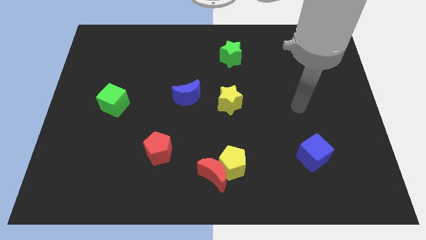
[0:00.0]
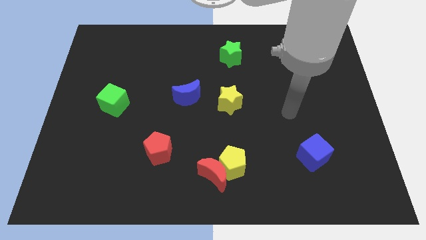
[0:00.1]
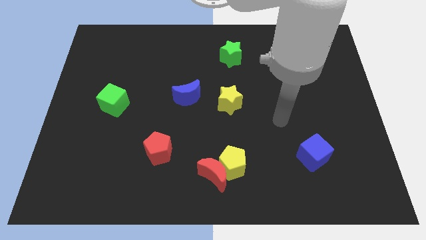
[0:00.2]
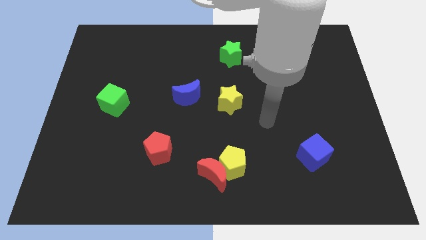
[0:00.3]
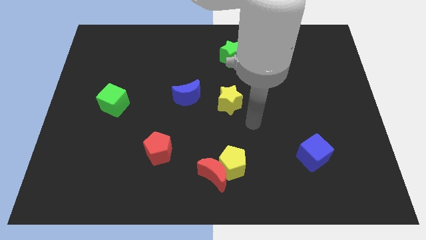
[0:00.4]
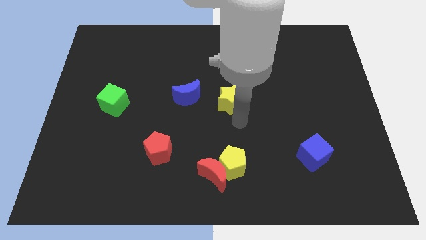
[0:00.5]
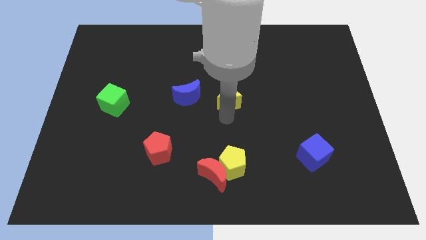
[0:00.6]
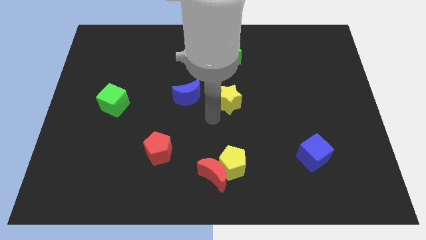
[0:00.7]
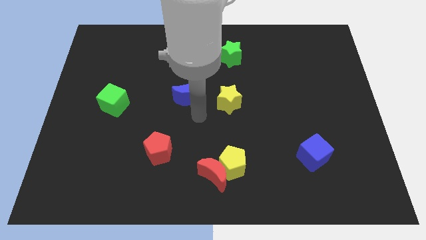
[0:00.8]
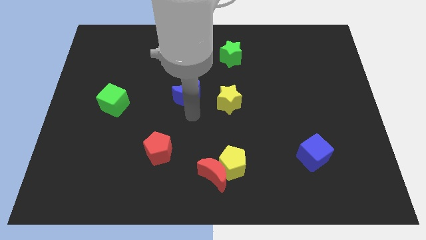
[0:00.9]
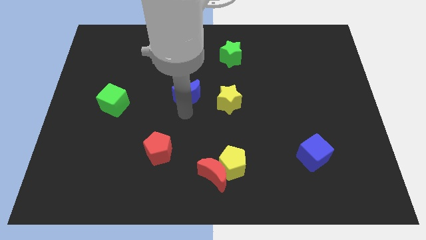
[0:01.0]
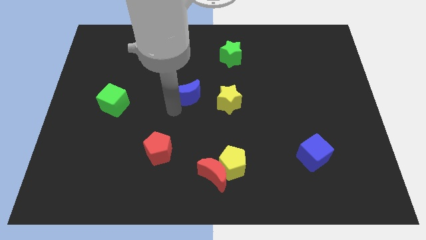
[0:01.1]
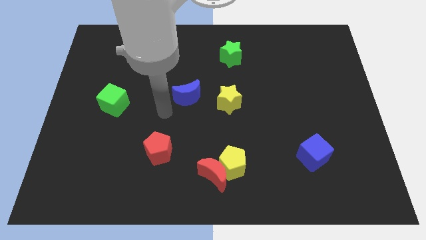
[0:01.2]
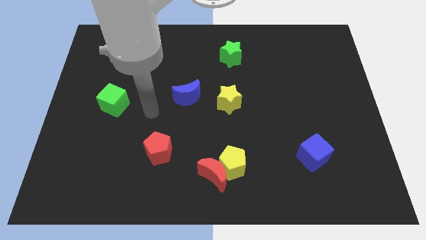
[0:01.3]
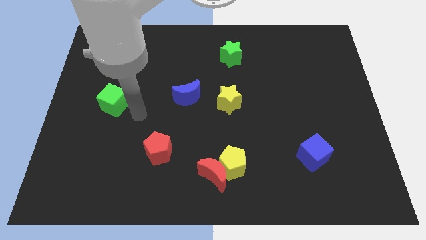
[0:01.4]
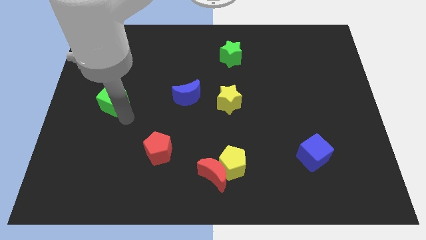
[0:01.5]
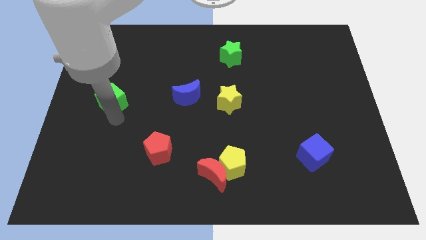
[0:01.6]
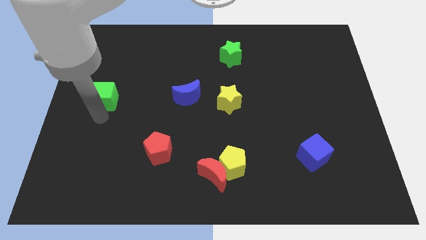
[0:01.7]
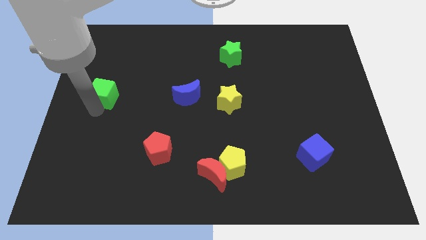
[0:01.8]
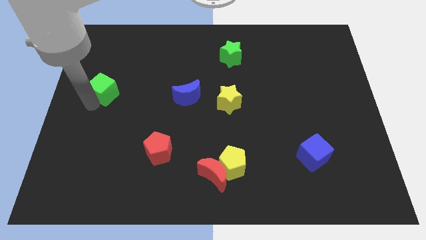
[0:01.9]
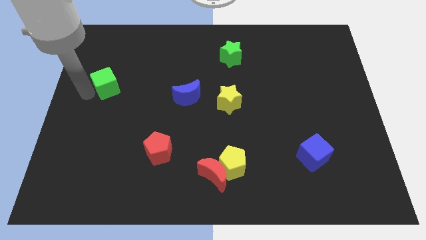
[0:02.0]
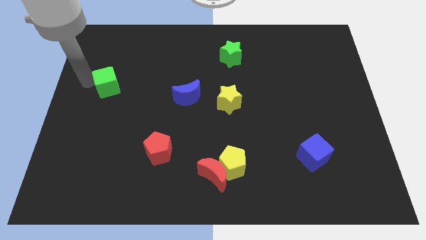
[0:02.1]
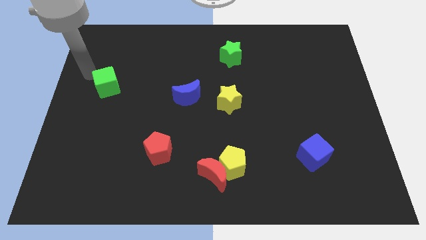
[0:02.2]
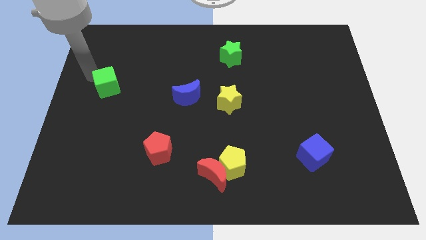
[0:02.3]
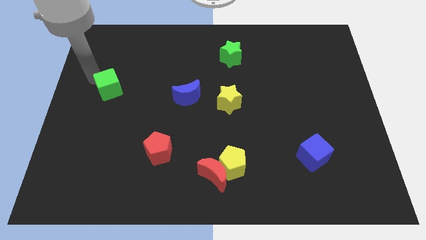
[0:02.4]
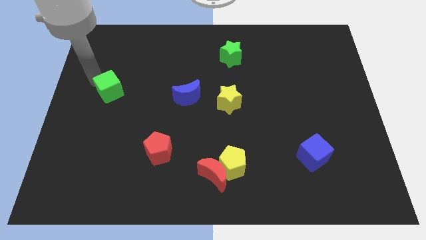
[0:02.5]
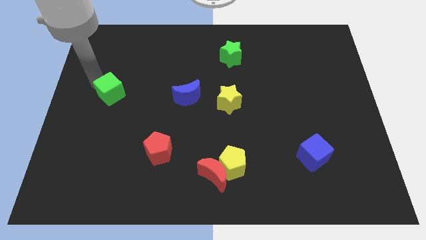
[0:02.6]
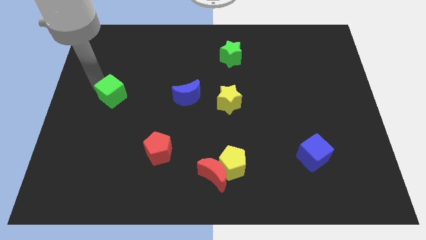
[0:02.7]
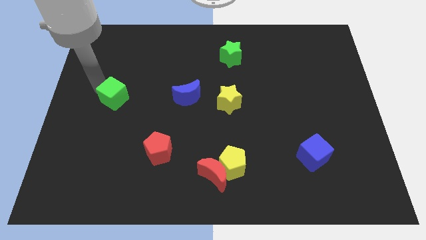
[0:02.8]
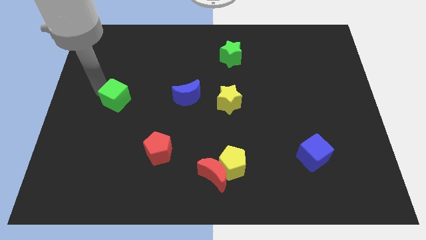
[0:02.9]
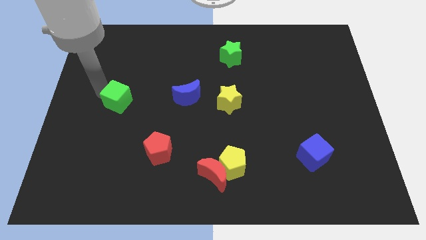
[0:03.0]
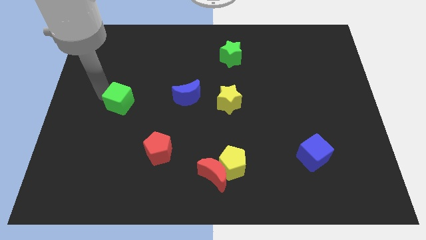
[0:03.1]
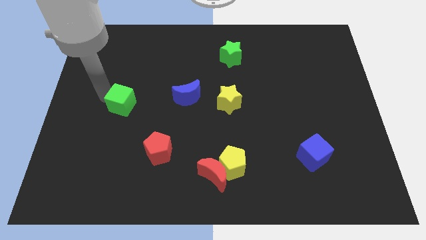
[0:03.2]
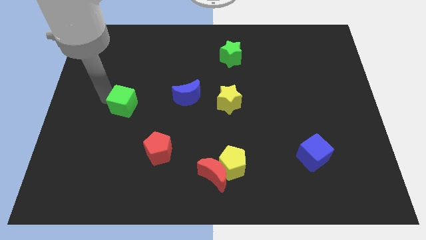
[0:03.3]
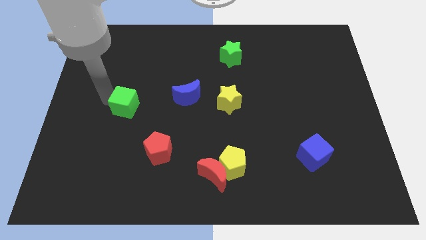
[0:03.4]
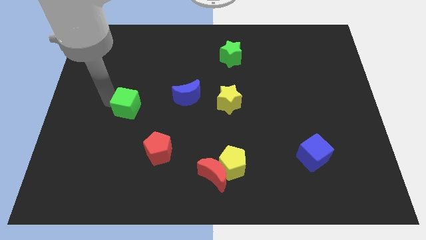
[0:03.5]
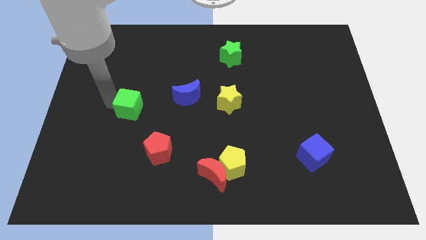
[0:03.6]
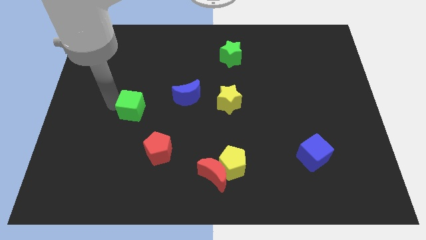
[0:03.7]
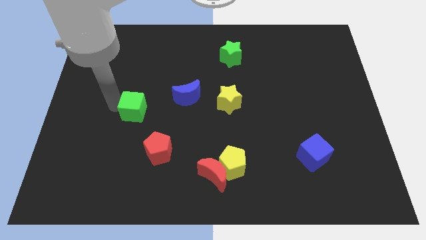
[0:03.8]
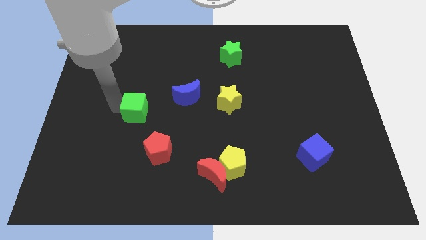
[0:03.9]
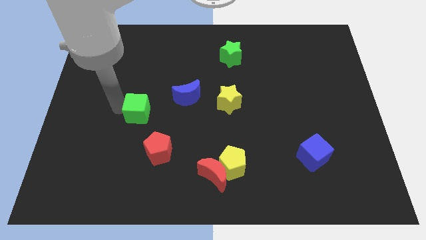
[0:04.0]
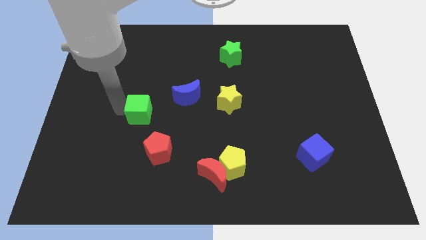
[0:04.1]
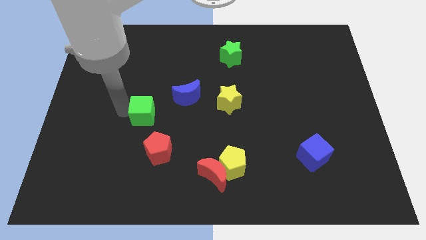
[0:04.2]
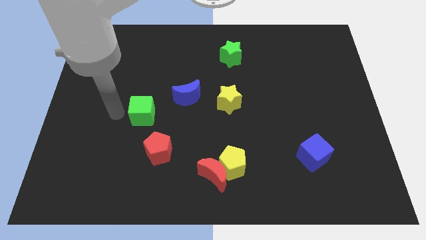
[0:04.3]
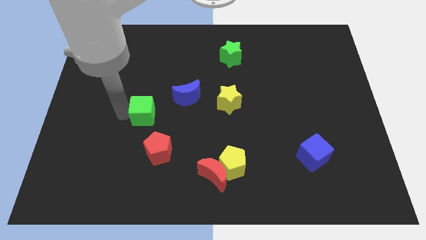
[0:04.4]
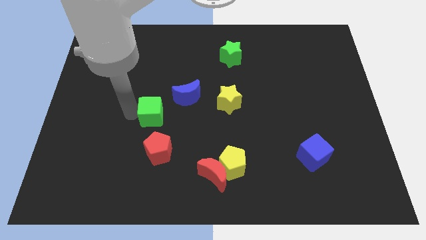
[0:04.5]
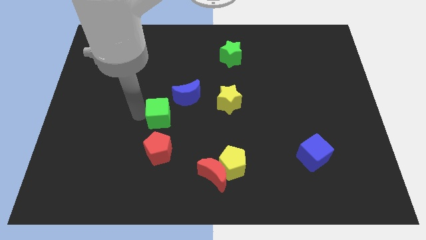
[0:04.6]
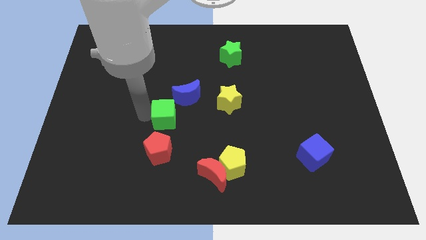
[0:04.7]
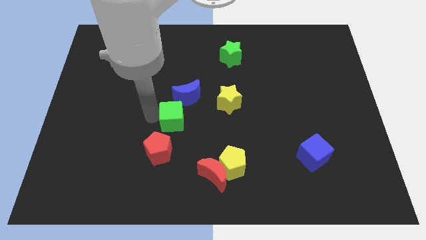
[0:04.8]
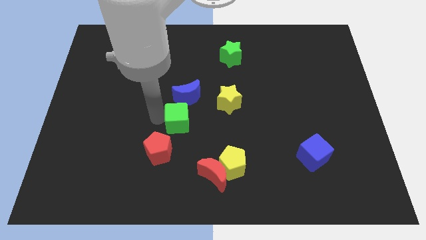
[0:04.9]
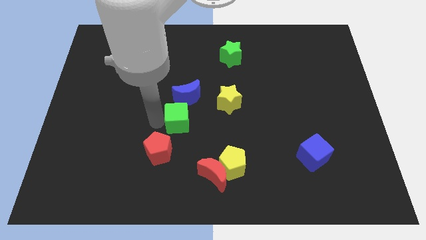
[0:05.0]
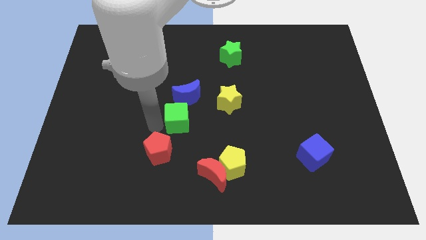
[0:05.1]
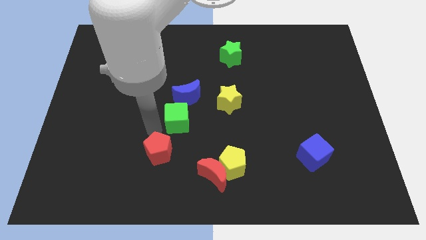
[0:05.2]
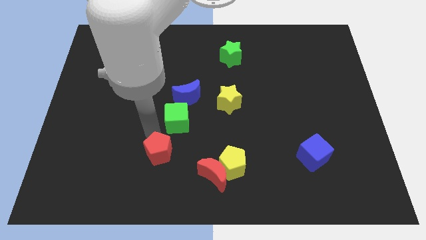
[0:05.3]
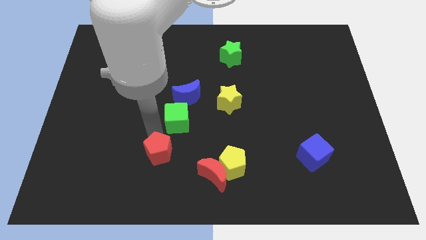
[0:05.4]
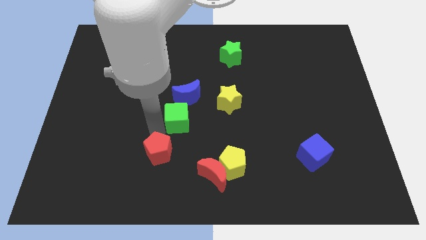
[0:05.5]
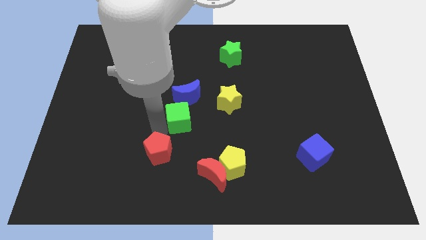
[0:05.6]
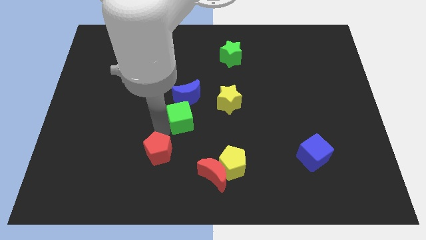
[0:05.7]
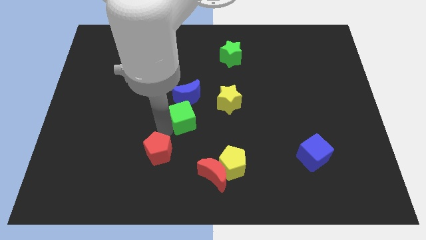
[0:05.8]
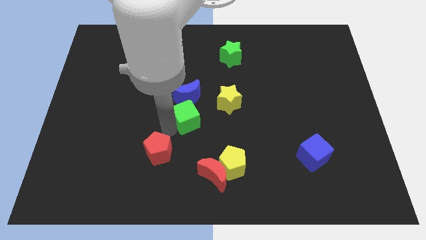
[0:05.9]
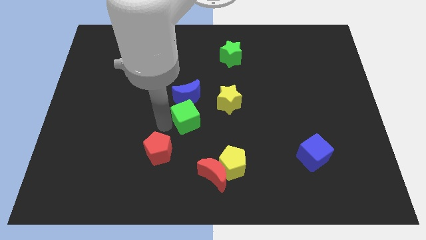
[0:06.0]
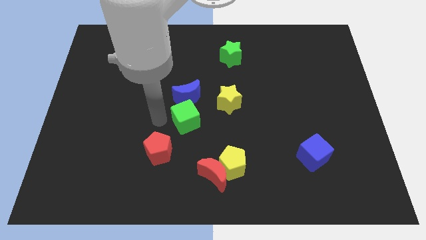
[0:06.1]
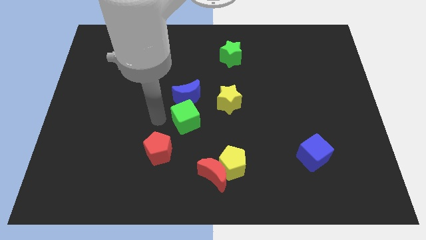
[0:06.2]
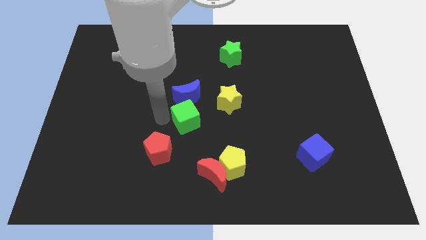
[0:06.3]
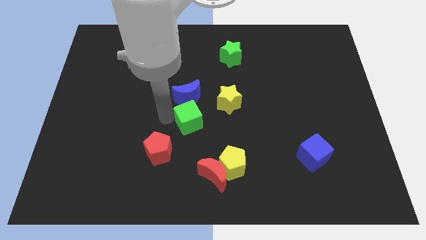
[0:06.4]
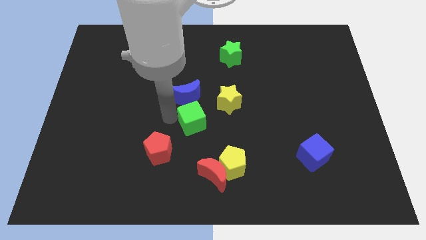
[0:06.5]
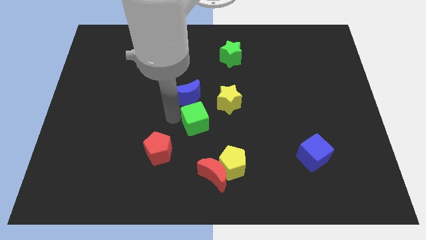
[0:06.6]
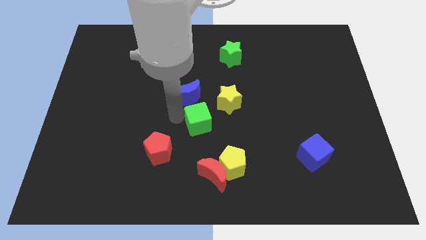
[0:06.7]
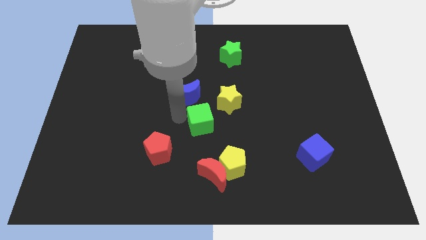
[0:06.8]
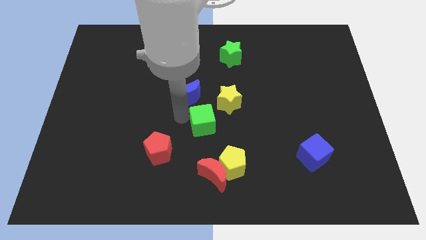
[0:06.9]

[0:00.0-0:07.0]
push the green cube right

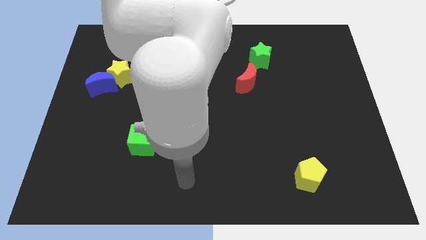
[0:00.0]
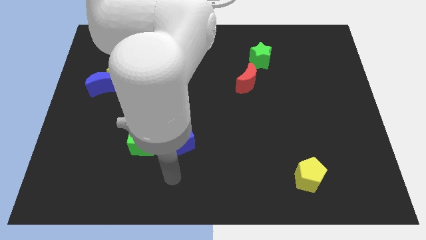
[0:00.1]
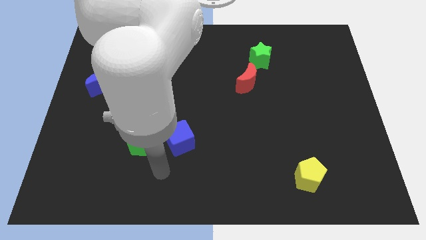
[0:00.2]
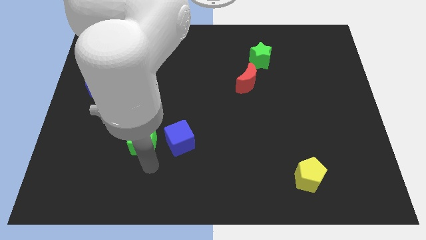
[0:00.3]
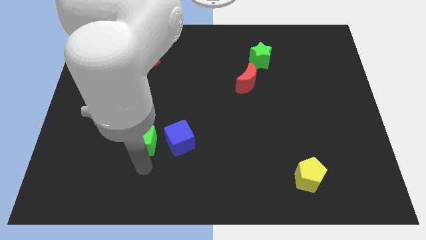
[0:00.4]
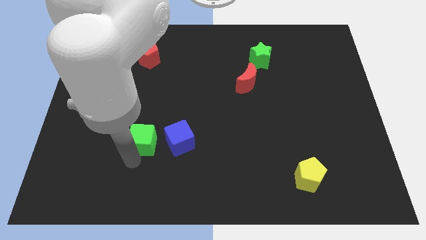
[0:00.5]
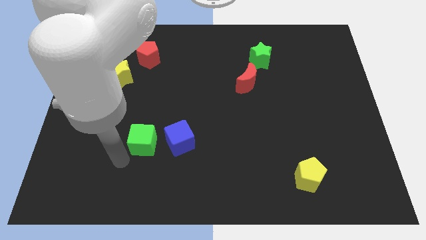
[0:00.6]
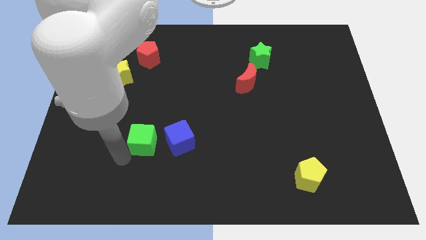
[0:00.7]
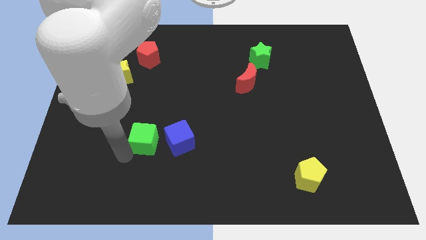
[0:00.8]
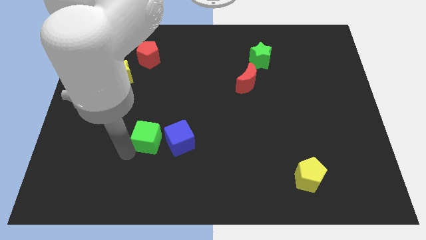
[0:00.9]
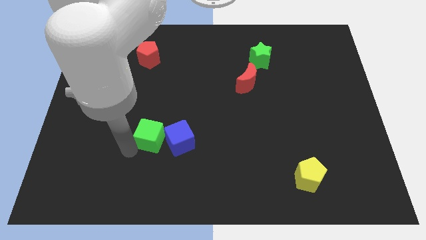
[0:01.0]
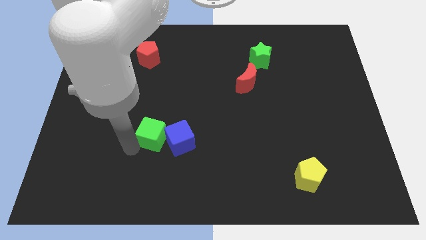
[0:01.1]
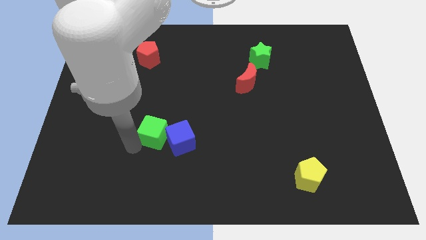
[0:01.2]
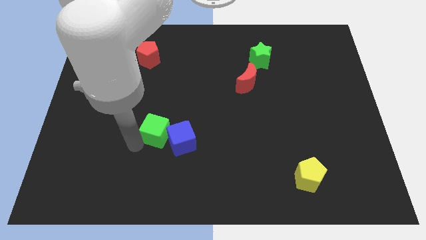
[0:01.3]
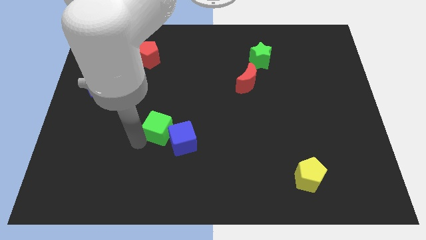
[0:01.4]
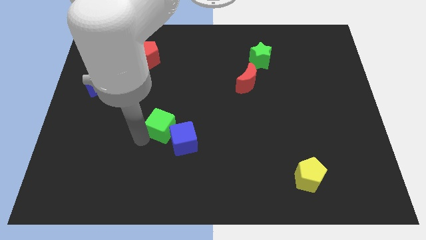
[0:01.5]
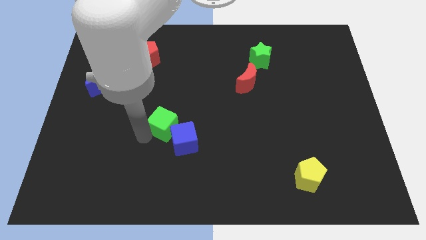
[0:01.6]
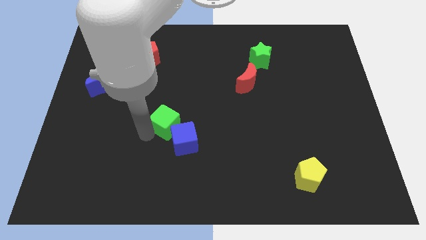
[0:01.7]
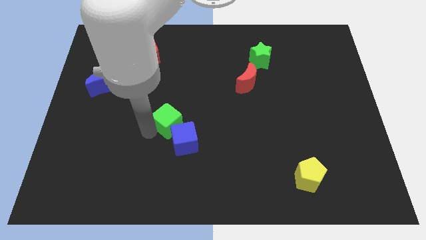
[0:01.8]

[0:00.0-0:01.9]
slightly slide the green cube up and then right
